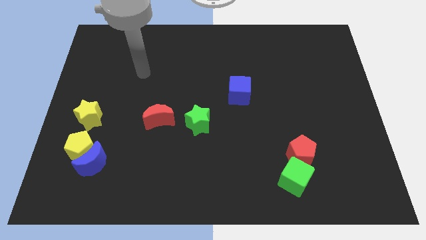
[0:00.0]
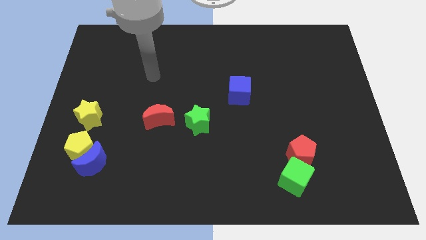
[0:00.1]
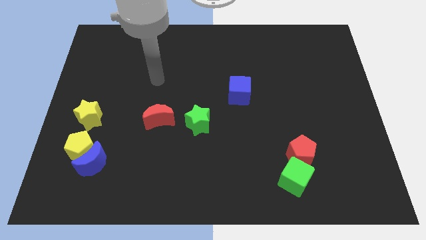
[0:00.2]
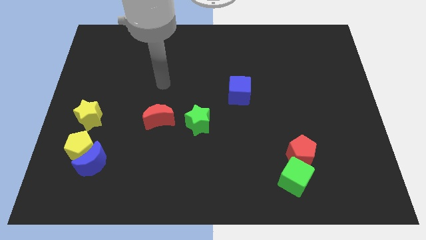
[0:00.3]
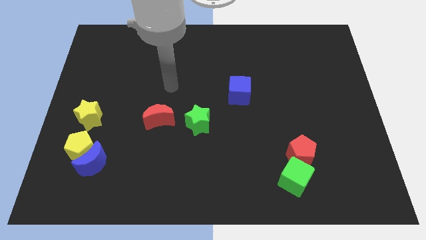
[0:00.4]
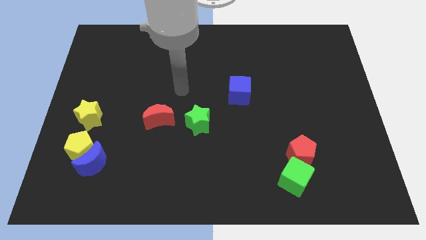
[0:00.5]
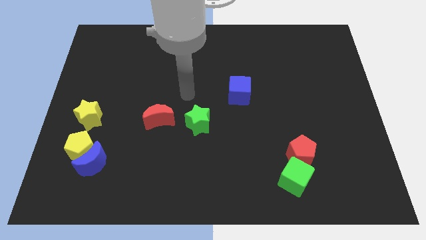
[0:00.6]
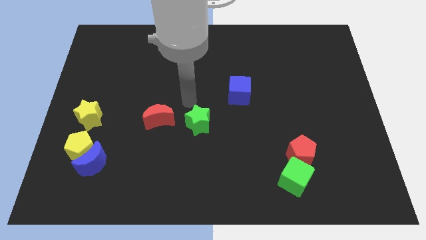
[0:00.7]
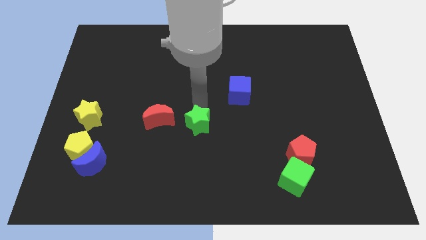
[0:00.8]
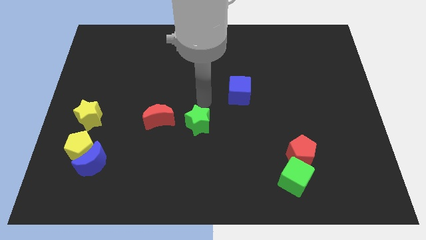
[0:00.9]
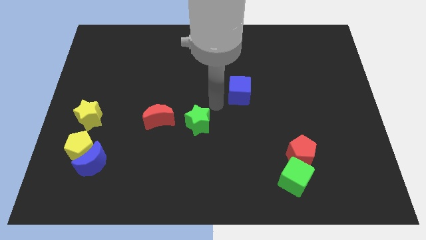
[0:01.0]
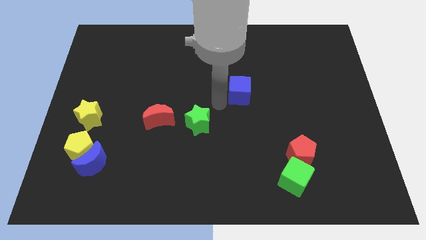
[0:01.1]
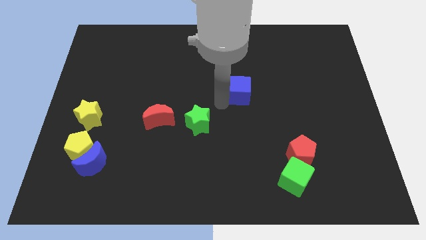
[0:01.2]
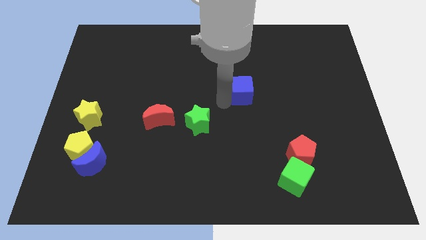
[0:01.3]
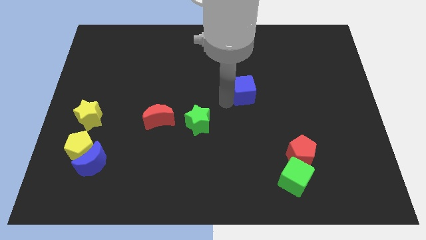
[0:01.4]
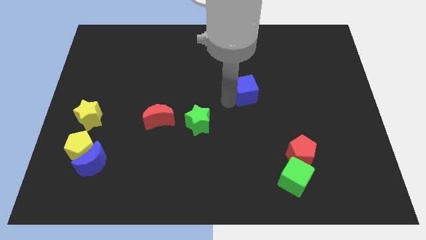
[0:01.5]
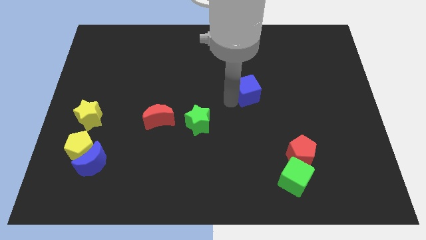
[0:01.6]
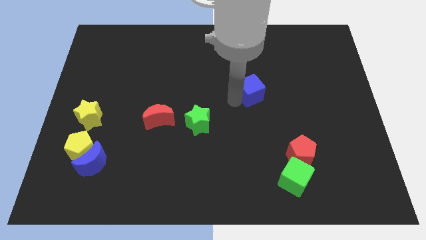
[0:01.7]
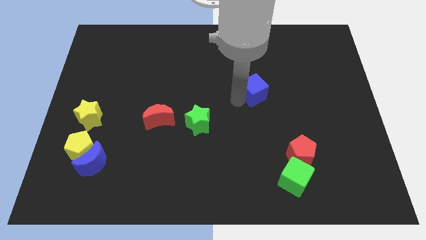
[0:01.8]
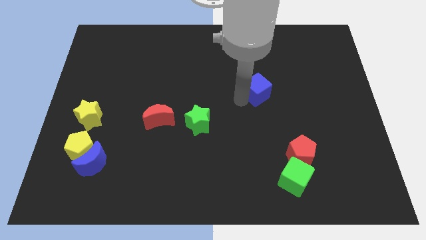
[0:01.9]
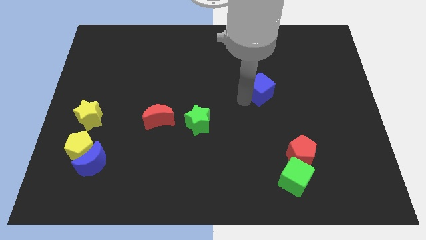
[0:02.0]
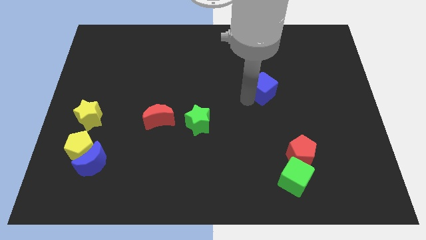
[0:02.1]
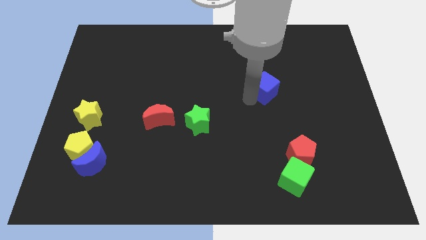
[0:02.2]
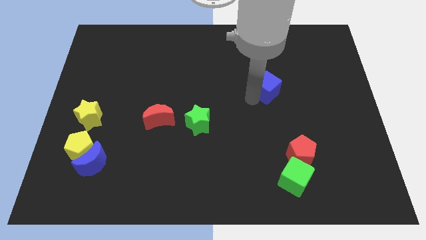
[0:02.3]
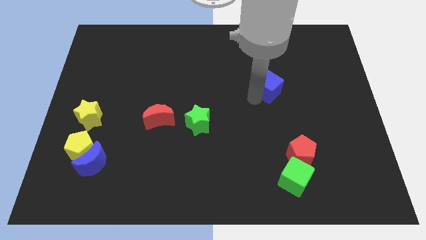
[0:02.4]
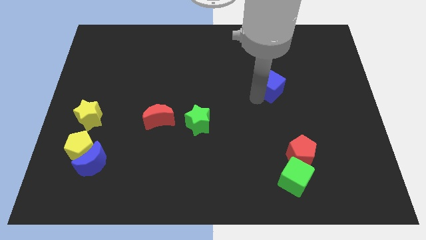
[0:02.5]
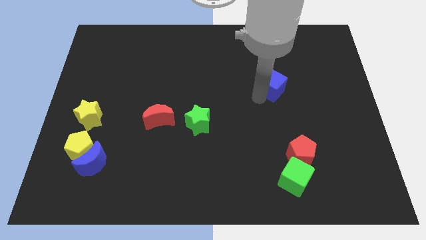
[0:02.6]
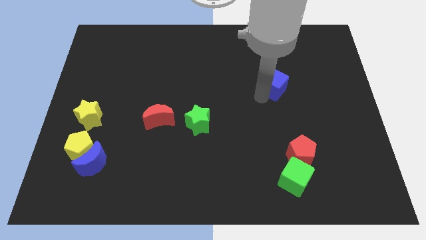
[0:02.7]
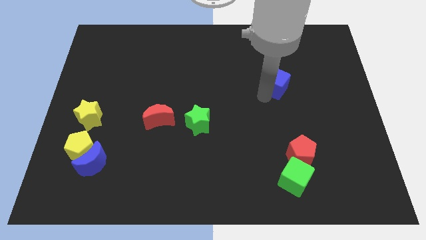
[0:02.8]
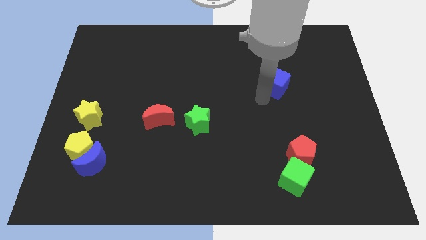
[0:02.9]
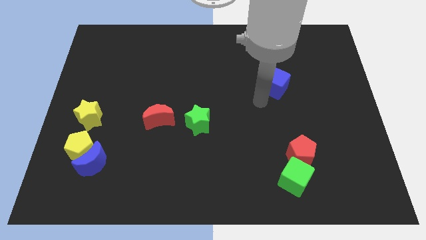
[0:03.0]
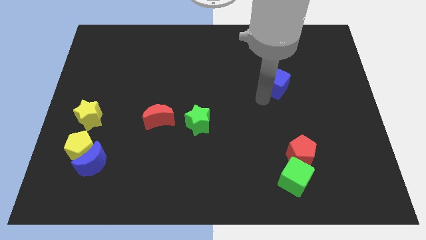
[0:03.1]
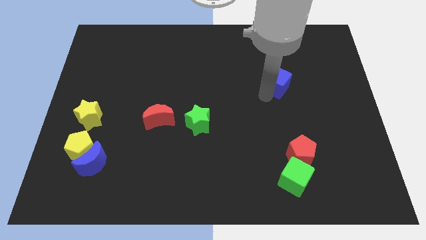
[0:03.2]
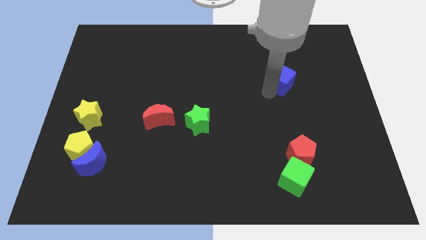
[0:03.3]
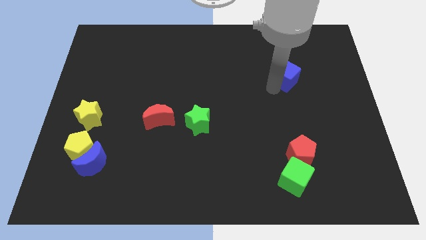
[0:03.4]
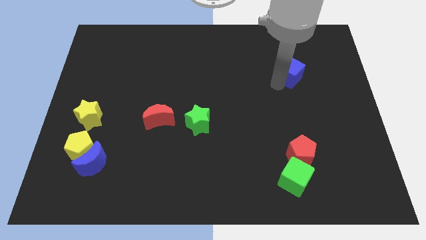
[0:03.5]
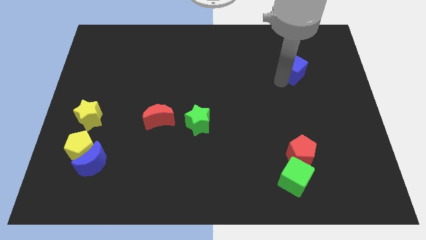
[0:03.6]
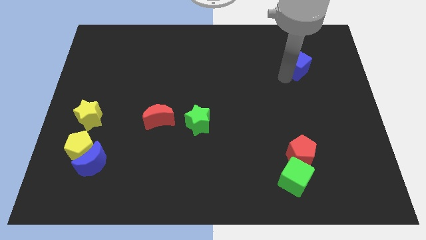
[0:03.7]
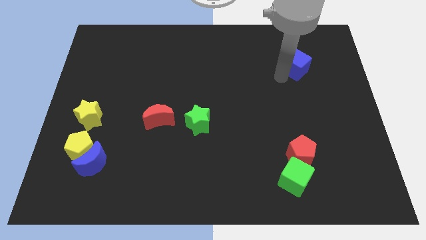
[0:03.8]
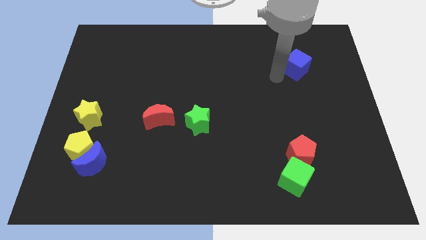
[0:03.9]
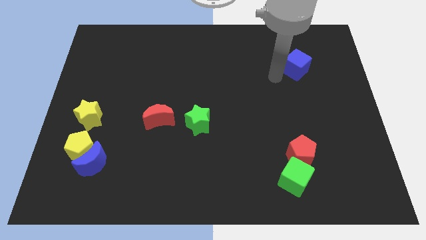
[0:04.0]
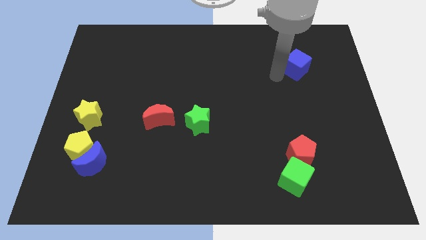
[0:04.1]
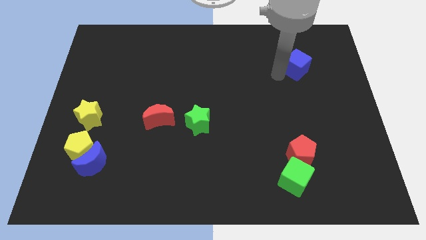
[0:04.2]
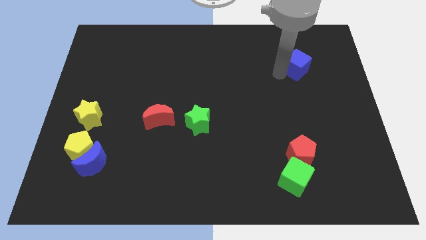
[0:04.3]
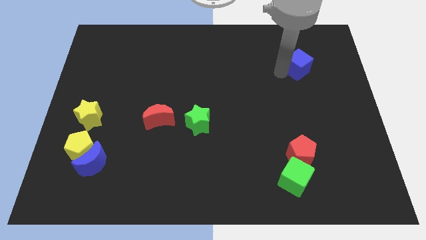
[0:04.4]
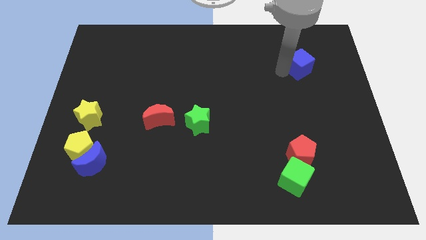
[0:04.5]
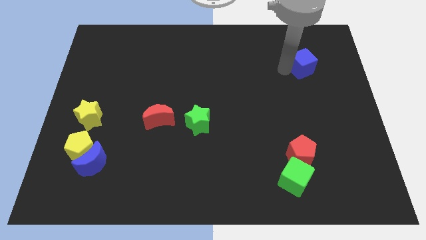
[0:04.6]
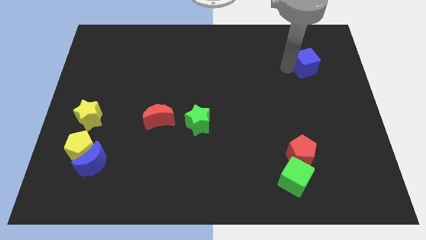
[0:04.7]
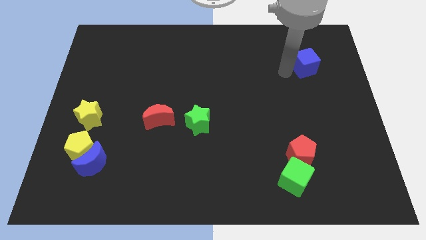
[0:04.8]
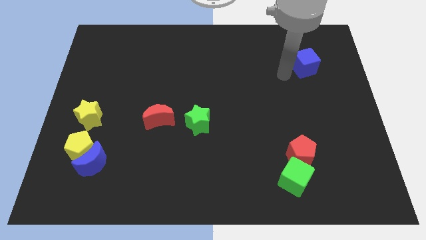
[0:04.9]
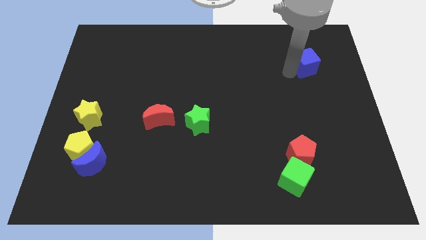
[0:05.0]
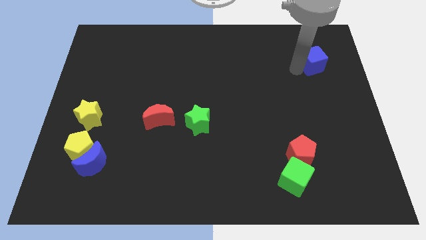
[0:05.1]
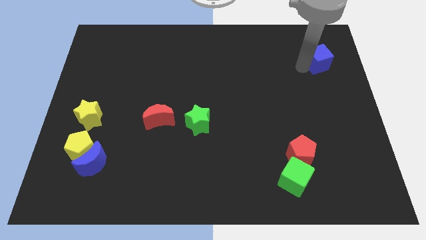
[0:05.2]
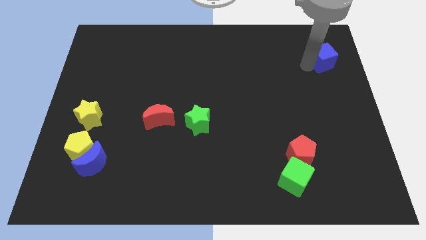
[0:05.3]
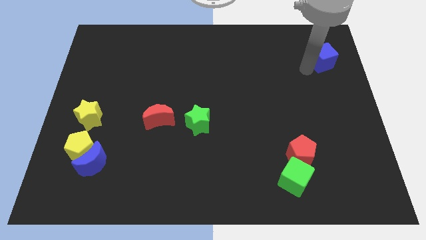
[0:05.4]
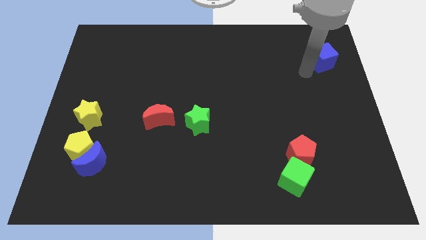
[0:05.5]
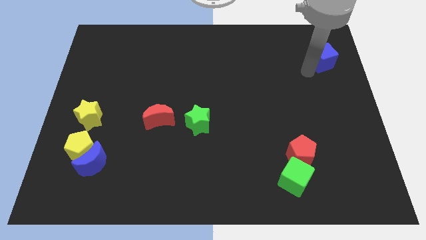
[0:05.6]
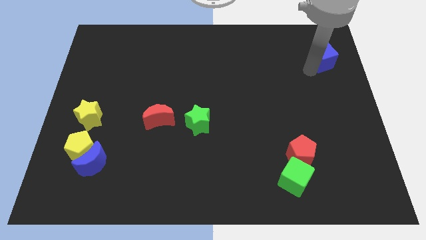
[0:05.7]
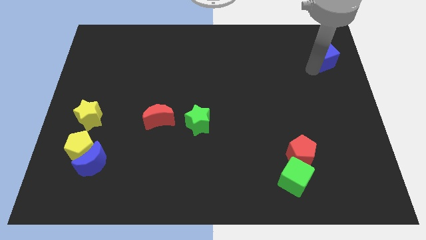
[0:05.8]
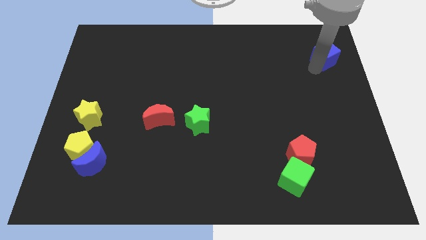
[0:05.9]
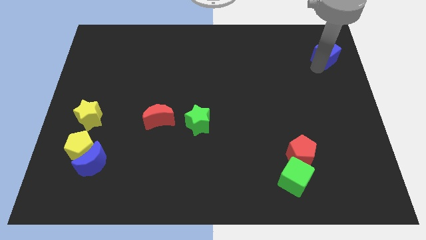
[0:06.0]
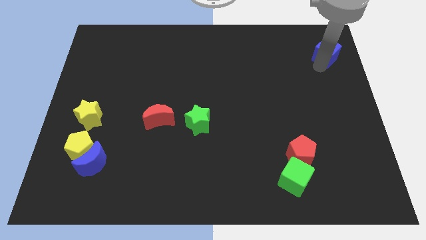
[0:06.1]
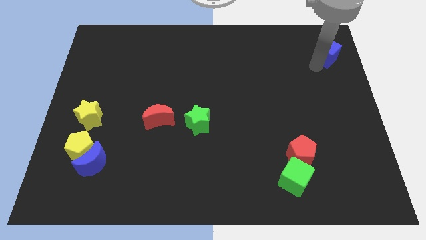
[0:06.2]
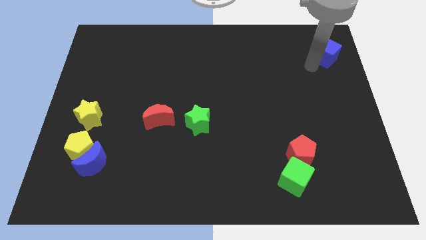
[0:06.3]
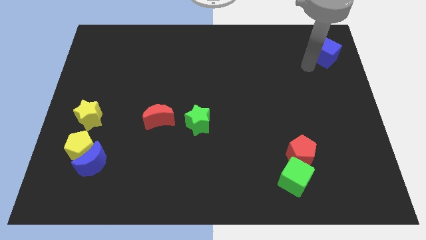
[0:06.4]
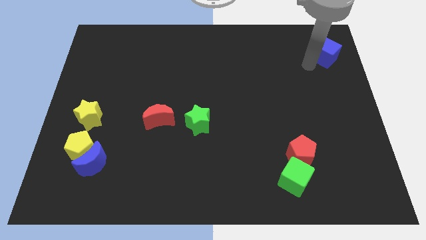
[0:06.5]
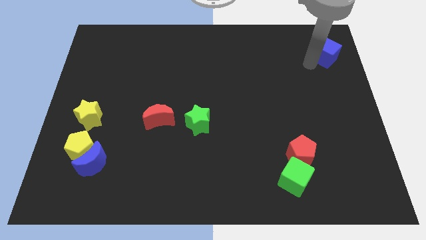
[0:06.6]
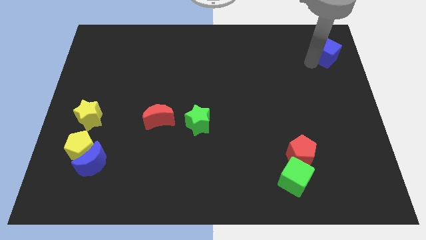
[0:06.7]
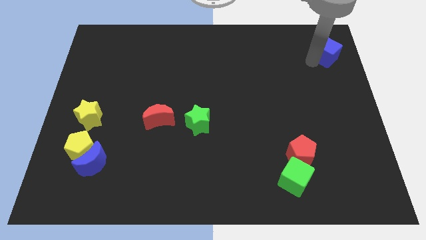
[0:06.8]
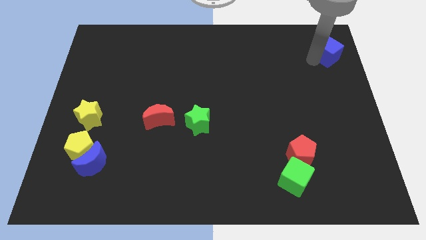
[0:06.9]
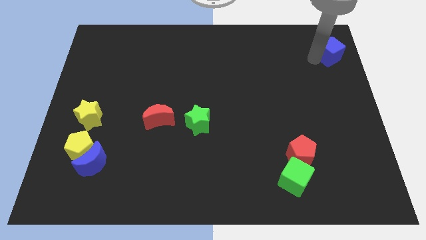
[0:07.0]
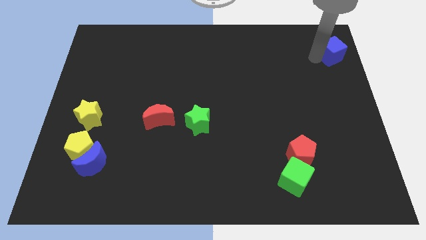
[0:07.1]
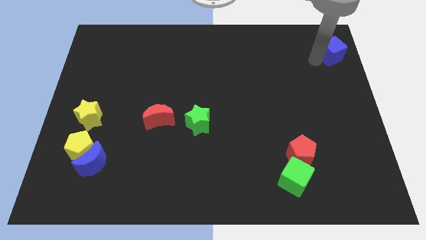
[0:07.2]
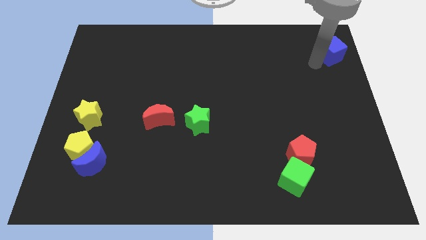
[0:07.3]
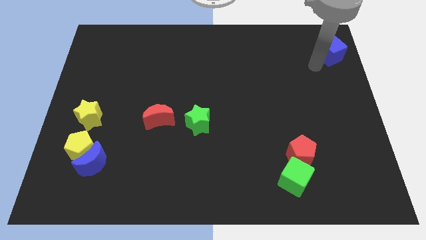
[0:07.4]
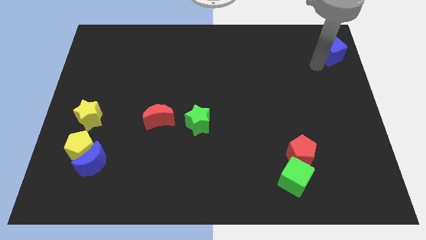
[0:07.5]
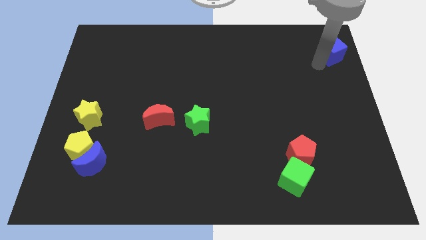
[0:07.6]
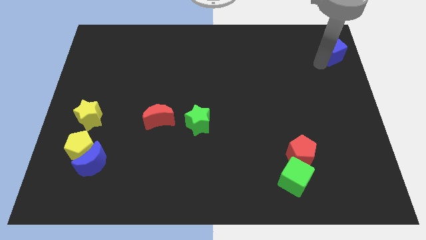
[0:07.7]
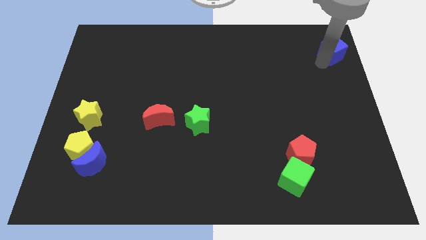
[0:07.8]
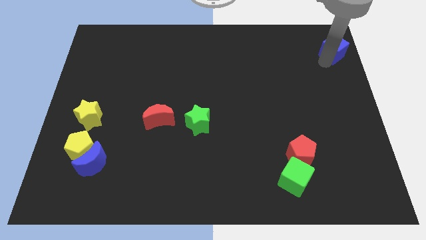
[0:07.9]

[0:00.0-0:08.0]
put the blue cube to the top right of the board

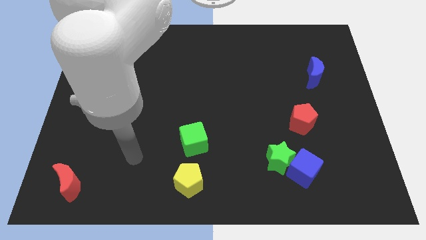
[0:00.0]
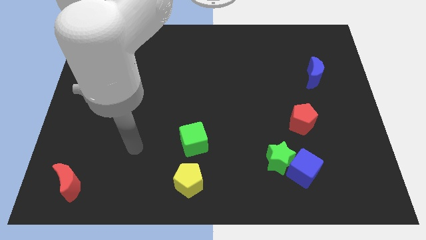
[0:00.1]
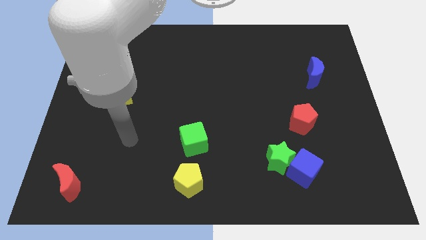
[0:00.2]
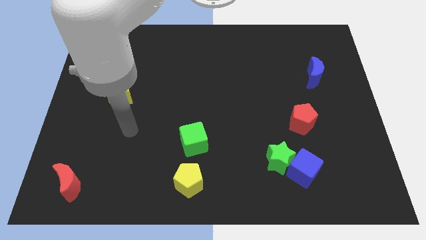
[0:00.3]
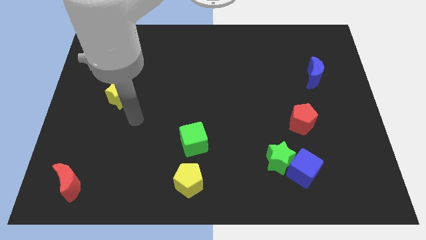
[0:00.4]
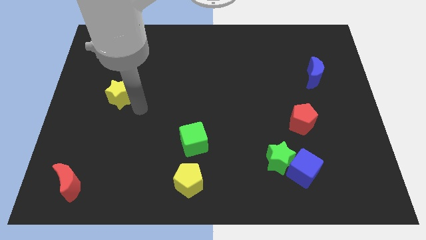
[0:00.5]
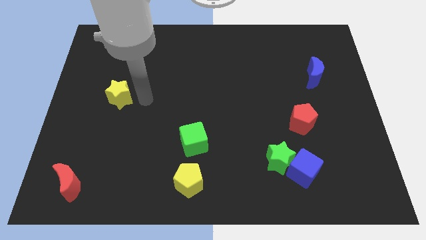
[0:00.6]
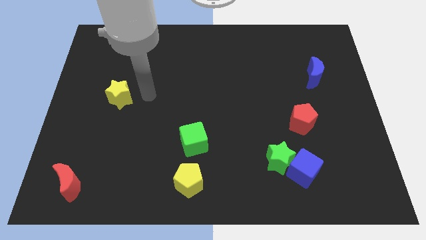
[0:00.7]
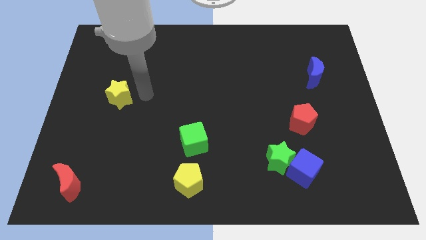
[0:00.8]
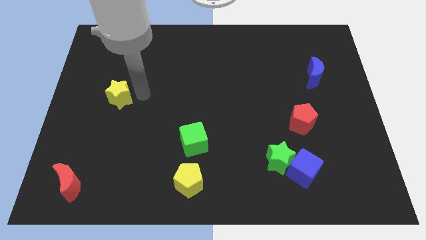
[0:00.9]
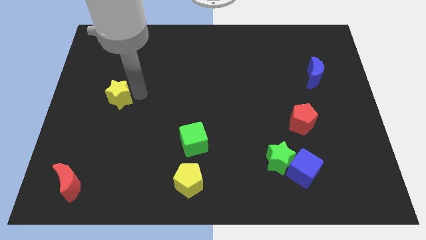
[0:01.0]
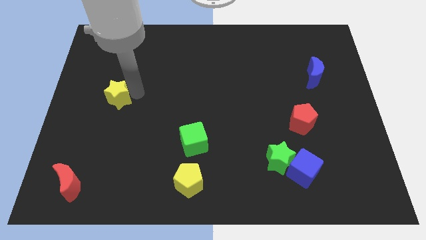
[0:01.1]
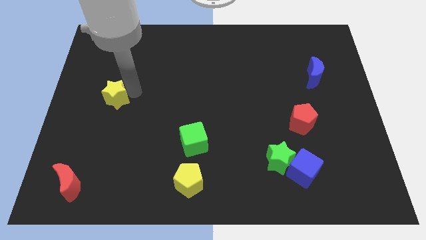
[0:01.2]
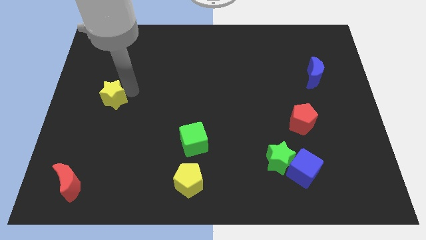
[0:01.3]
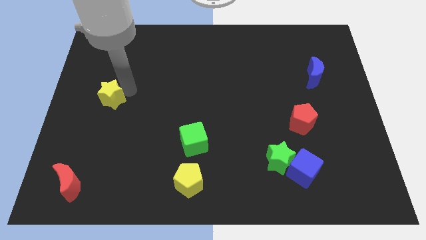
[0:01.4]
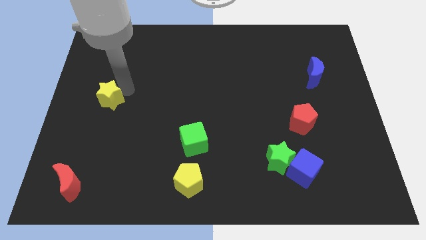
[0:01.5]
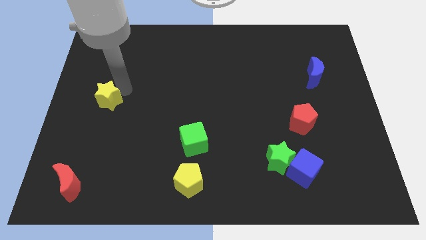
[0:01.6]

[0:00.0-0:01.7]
put the yellow star to the left side
